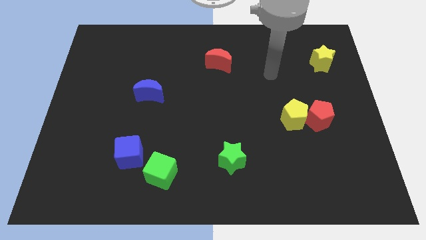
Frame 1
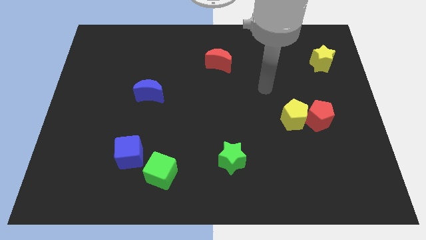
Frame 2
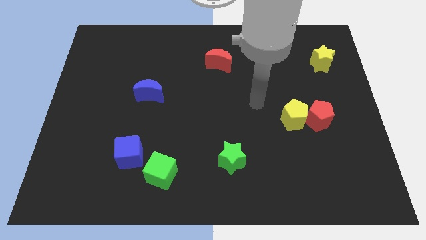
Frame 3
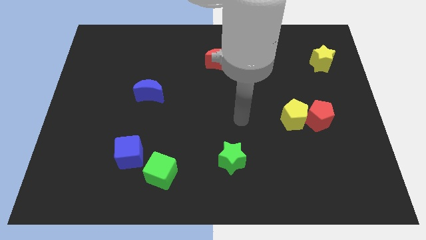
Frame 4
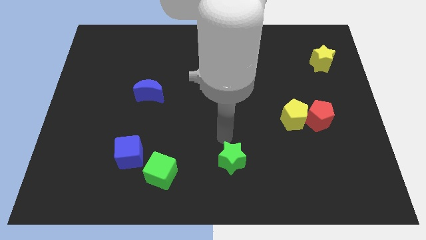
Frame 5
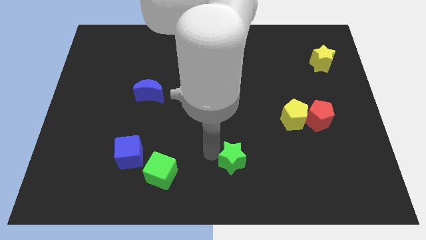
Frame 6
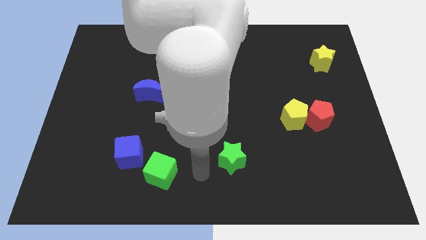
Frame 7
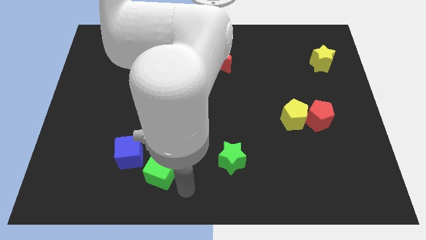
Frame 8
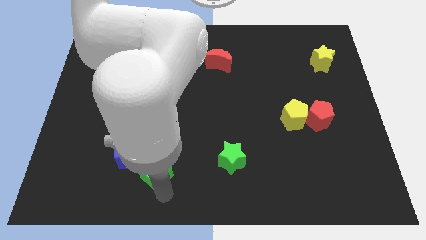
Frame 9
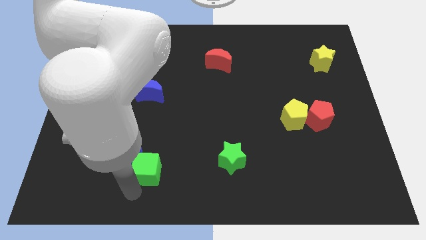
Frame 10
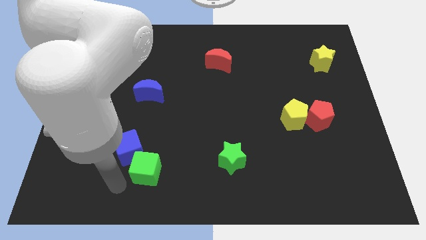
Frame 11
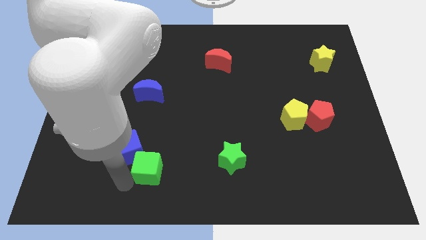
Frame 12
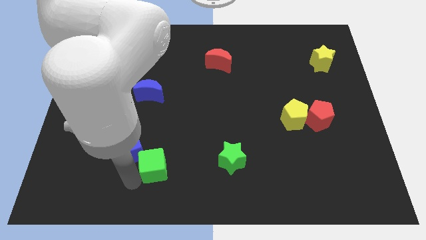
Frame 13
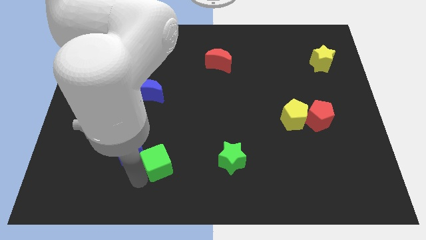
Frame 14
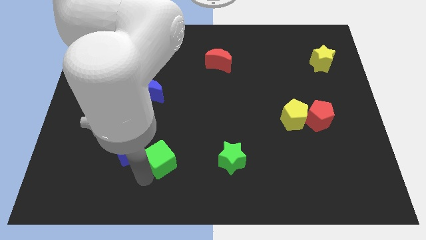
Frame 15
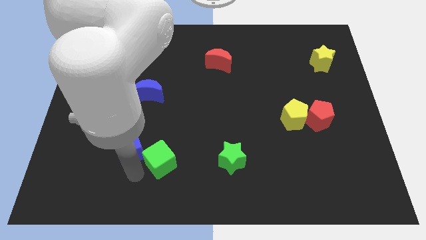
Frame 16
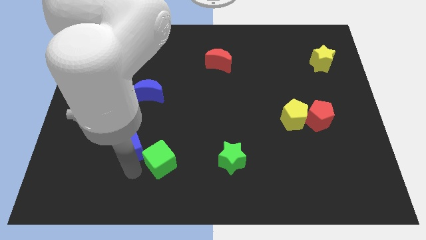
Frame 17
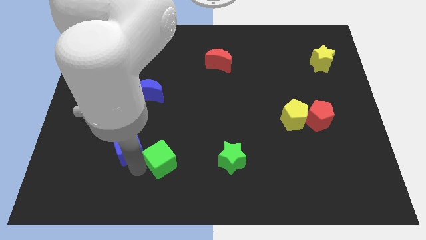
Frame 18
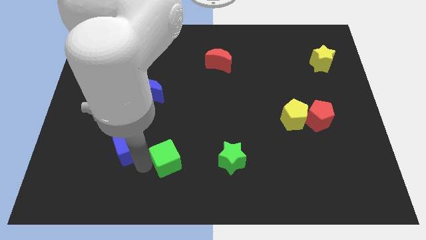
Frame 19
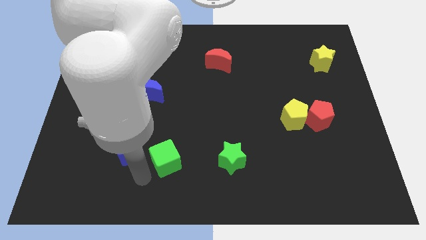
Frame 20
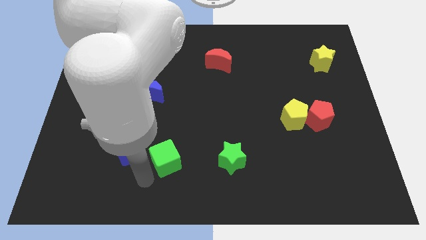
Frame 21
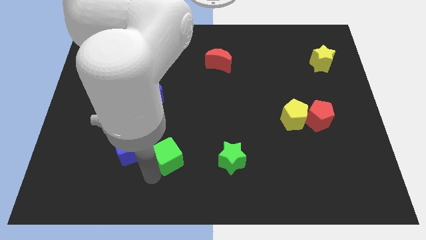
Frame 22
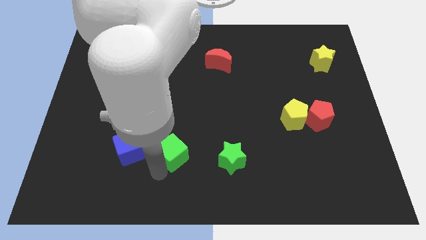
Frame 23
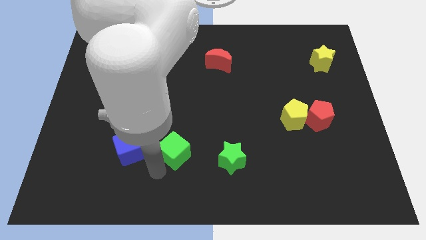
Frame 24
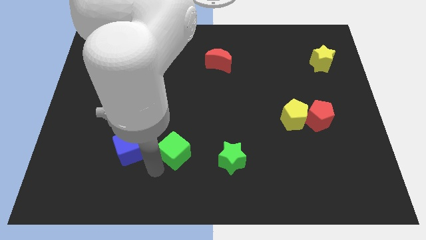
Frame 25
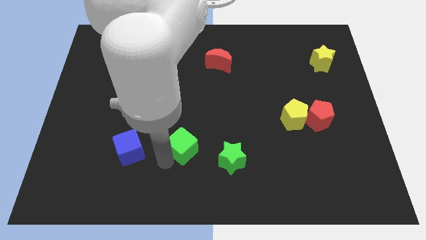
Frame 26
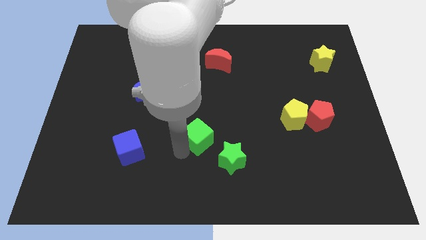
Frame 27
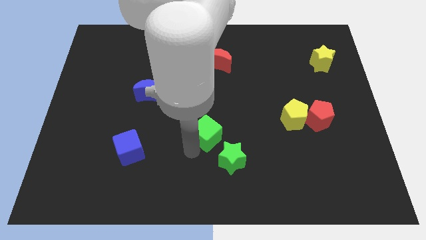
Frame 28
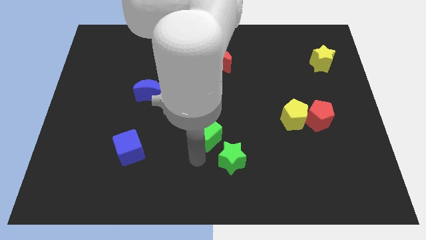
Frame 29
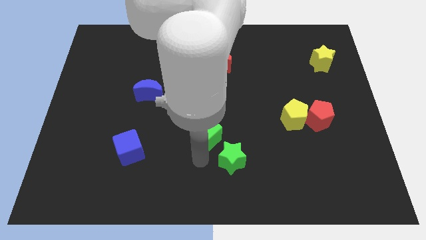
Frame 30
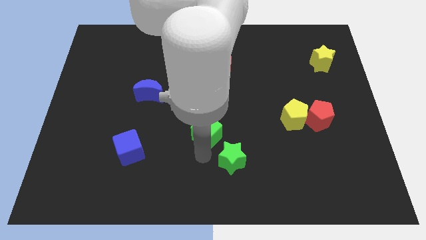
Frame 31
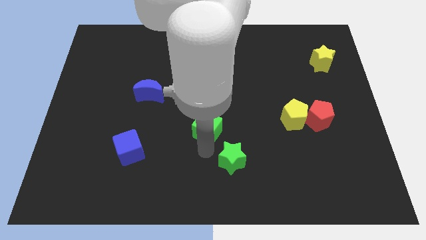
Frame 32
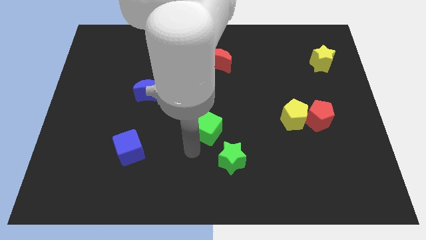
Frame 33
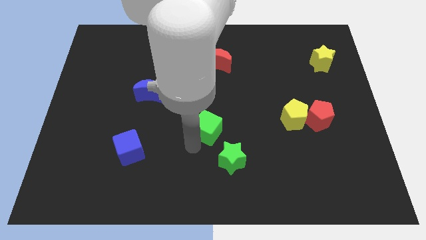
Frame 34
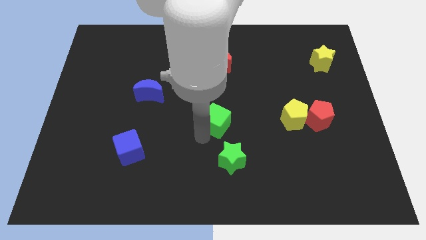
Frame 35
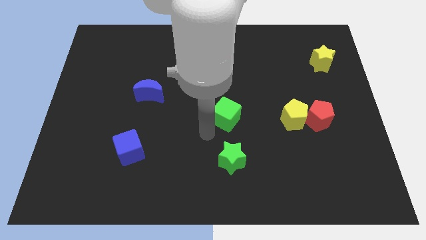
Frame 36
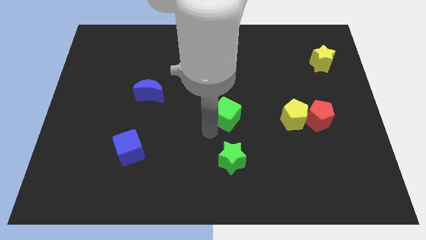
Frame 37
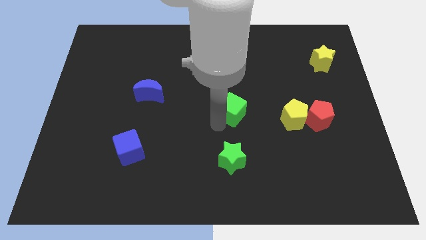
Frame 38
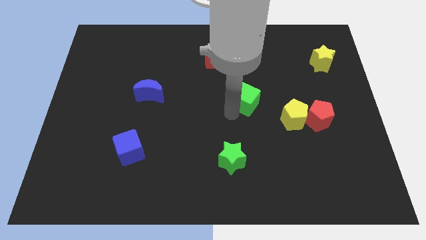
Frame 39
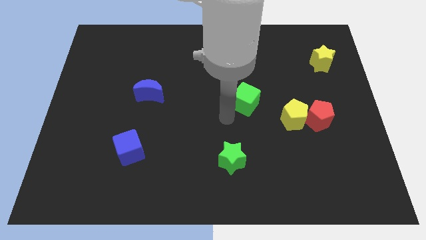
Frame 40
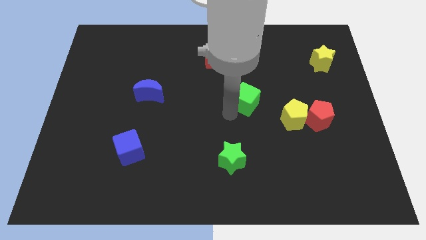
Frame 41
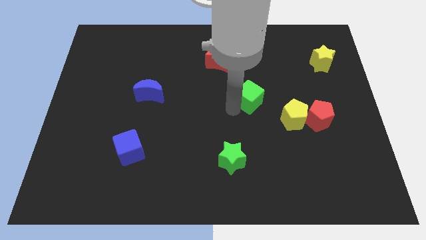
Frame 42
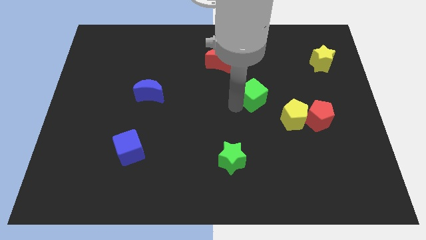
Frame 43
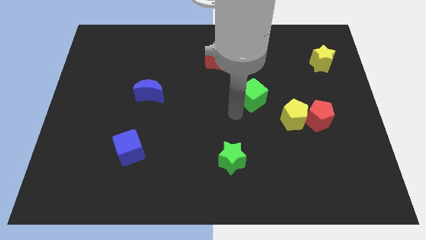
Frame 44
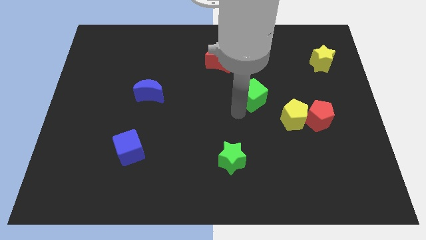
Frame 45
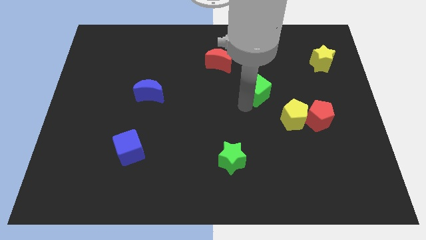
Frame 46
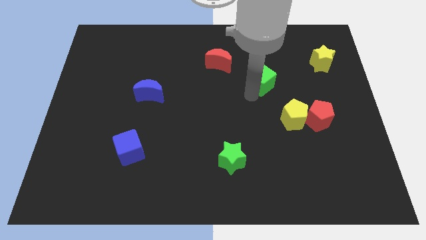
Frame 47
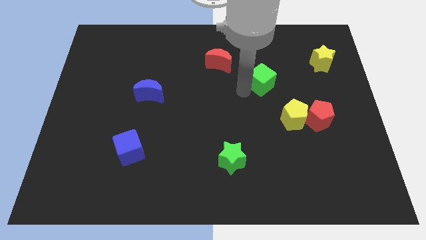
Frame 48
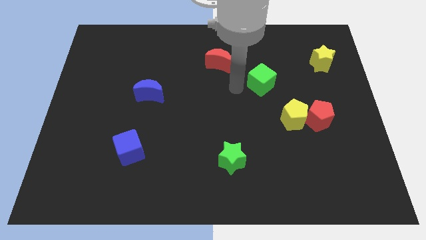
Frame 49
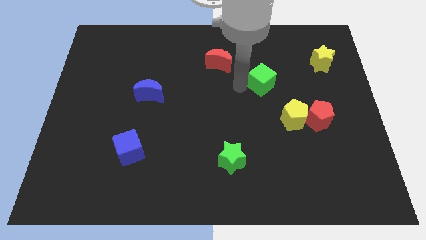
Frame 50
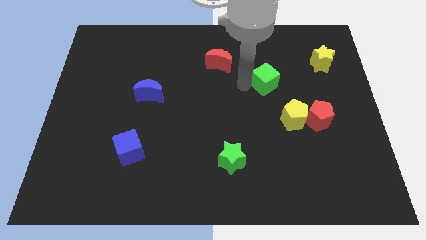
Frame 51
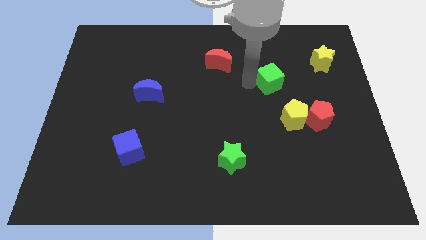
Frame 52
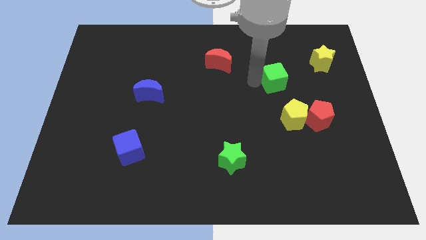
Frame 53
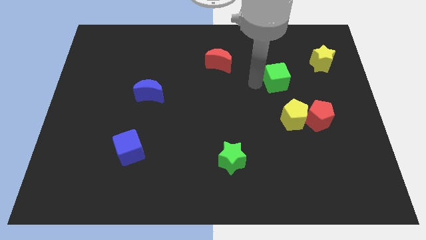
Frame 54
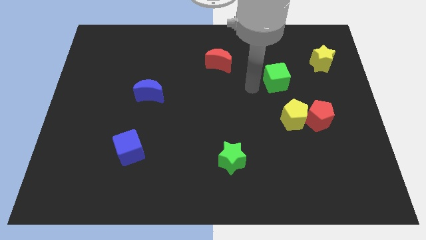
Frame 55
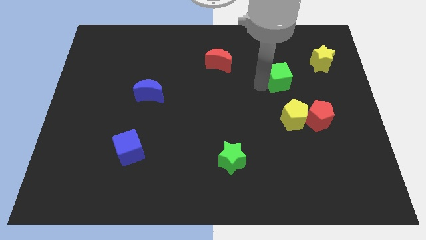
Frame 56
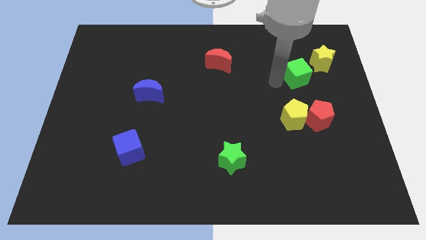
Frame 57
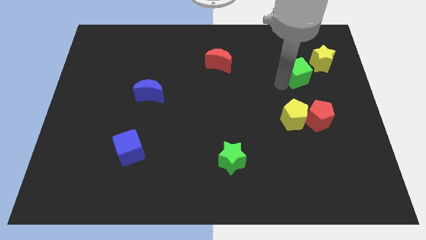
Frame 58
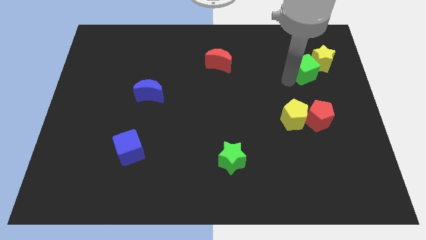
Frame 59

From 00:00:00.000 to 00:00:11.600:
put the green cube to the yellow star

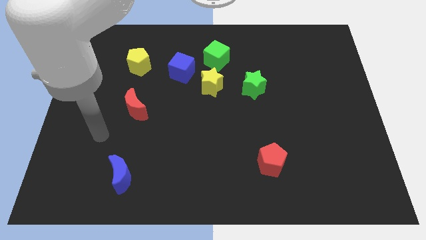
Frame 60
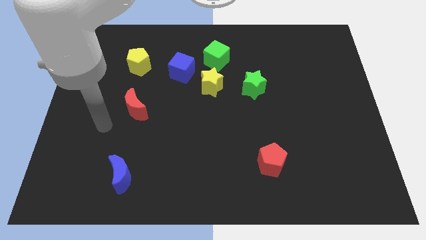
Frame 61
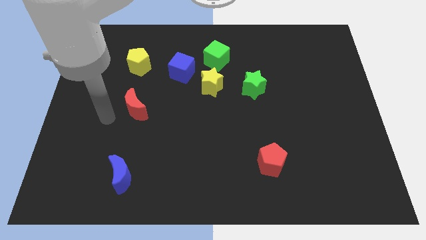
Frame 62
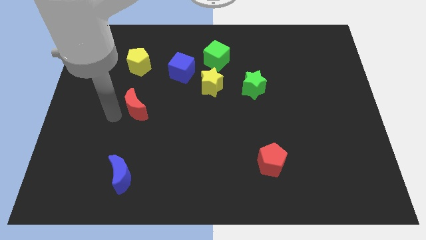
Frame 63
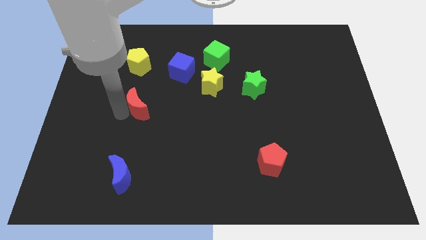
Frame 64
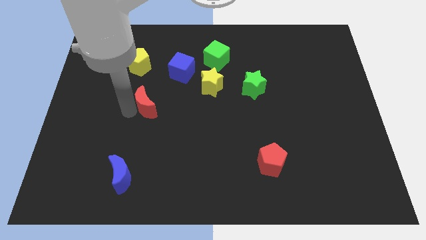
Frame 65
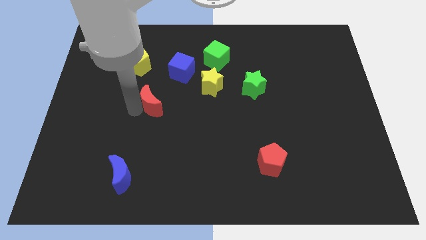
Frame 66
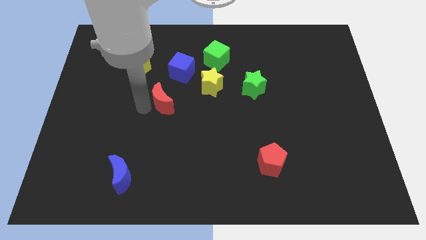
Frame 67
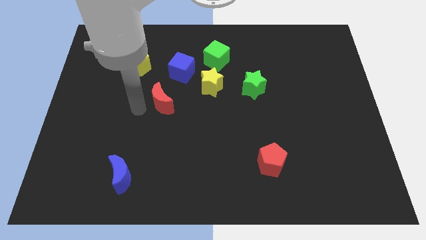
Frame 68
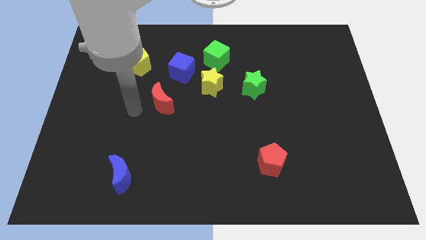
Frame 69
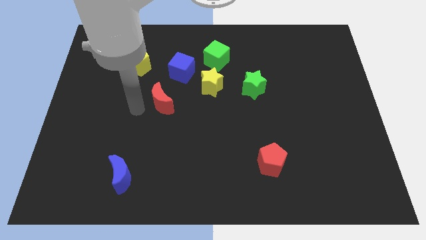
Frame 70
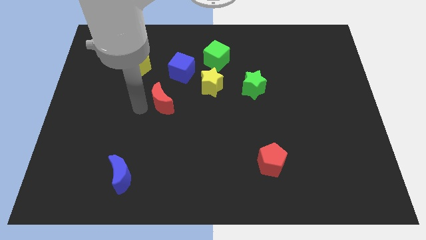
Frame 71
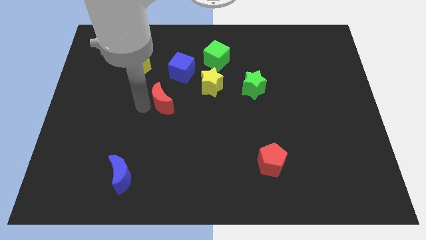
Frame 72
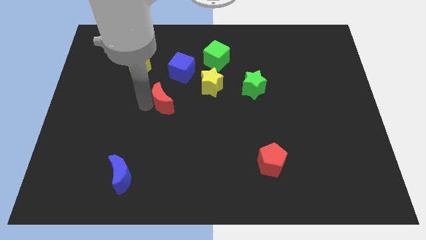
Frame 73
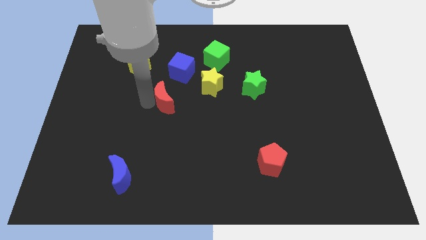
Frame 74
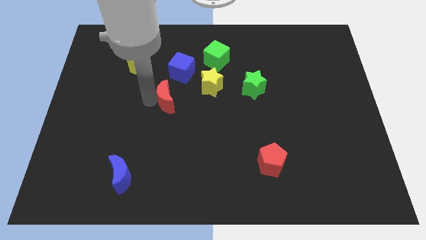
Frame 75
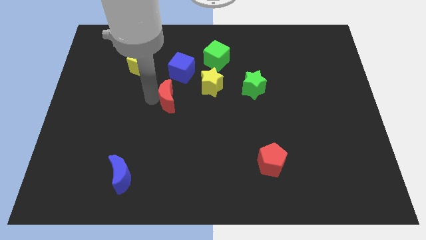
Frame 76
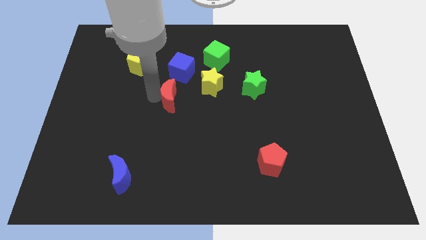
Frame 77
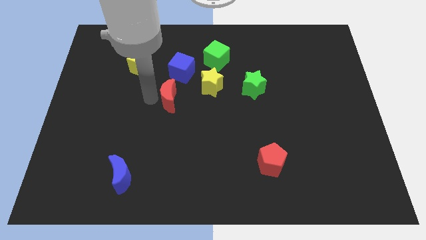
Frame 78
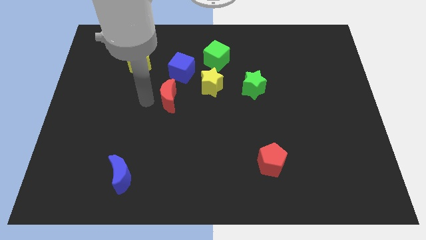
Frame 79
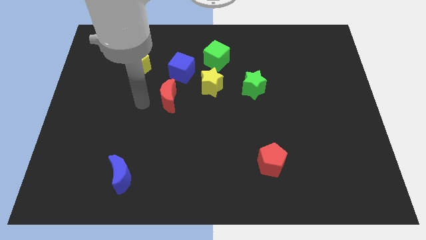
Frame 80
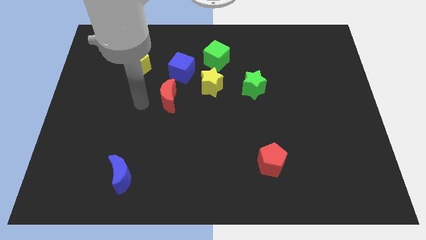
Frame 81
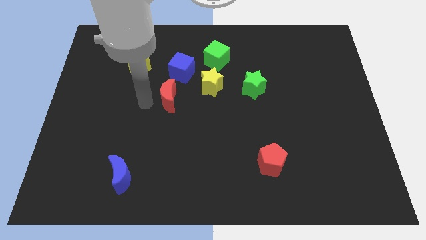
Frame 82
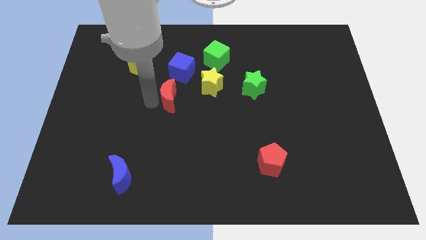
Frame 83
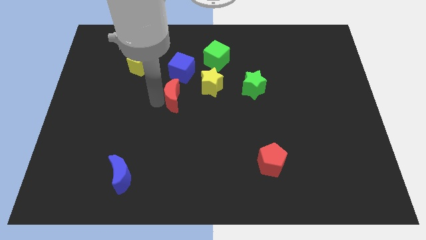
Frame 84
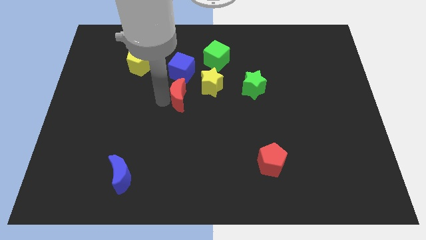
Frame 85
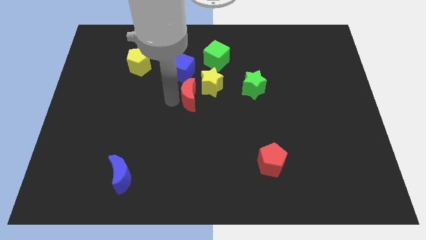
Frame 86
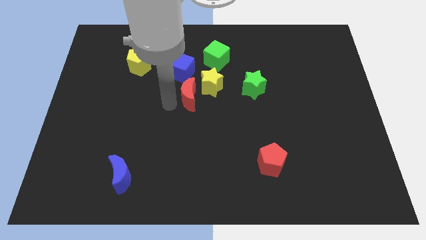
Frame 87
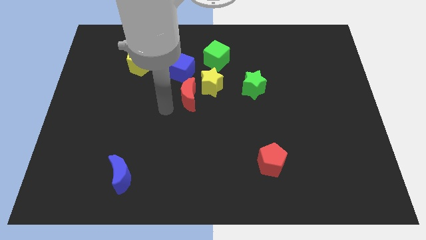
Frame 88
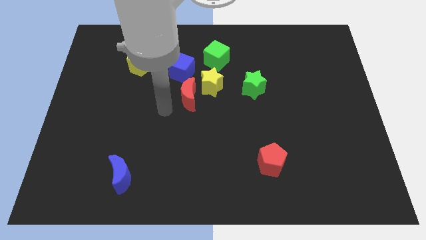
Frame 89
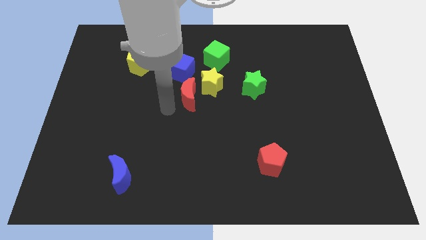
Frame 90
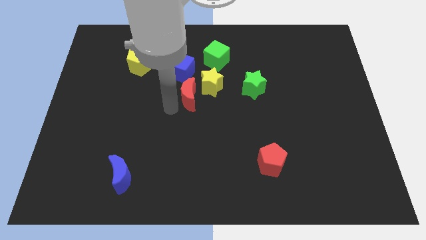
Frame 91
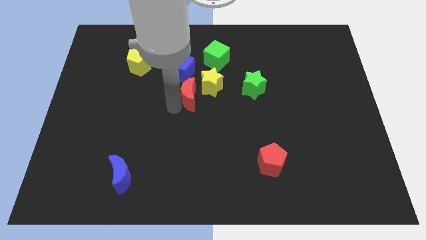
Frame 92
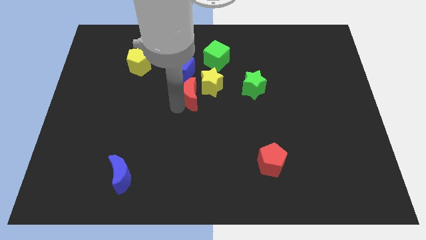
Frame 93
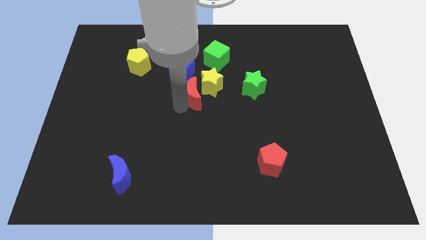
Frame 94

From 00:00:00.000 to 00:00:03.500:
slide the red moon close to the yellow star
